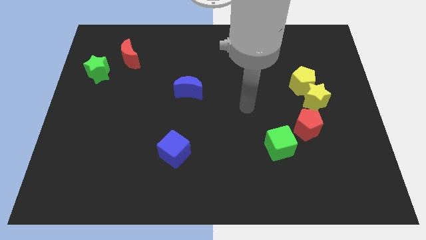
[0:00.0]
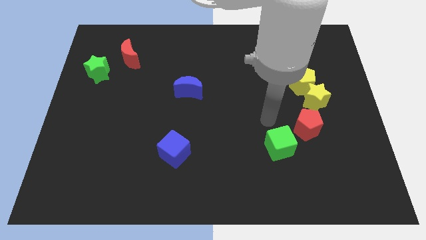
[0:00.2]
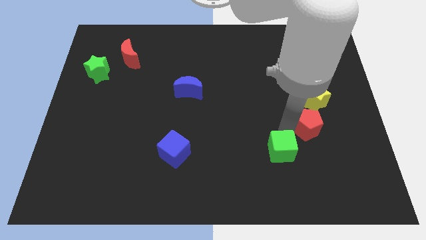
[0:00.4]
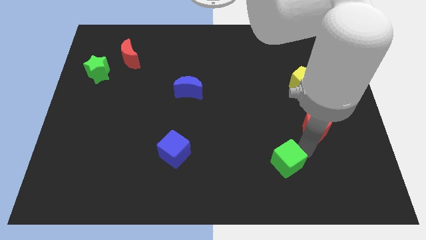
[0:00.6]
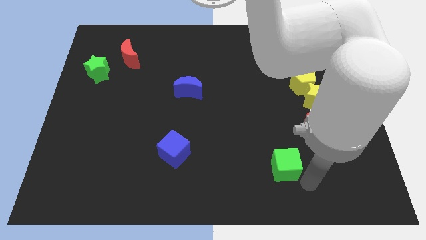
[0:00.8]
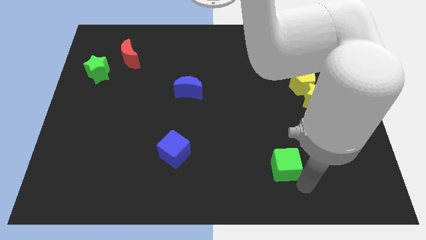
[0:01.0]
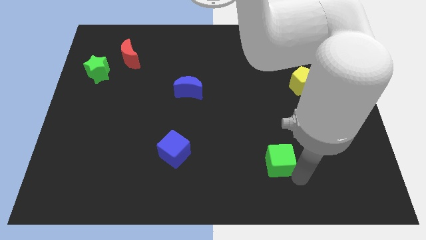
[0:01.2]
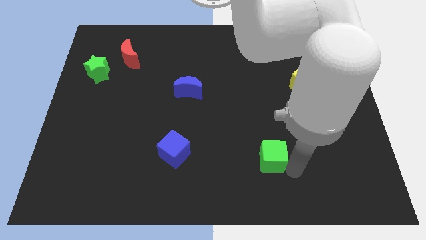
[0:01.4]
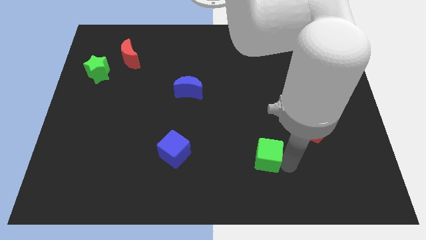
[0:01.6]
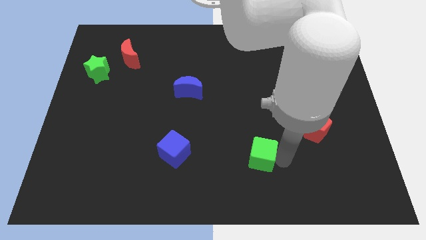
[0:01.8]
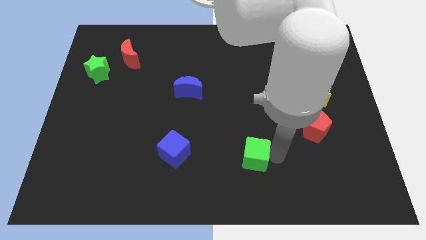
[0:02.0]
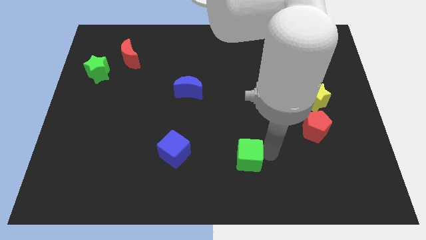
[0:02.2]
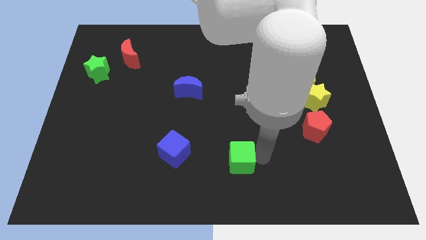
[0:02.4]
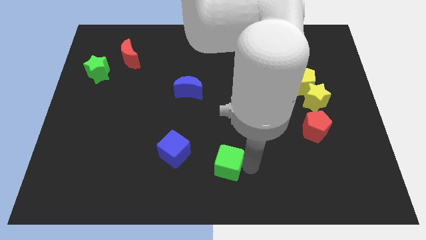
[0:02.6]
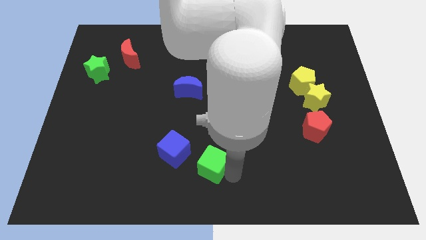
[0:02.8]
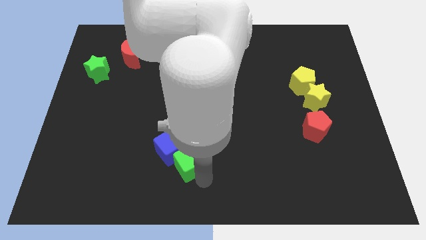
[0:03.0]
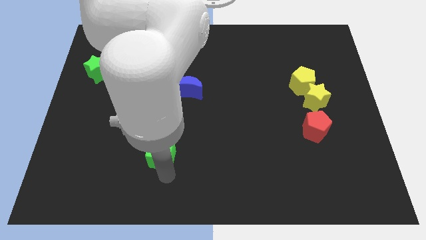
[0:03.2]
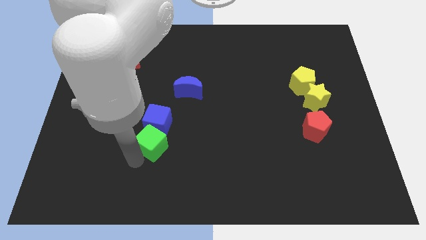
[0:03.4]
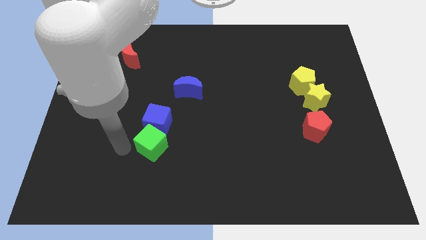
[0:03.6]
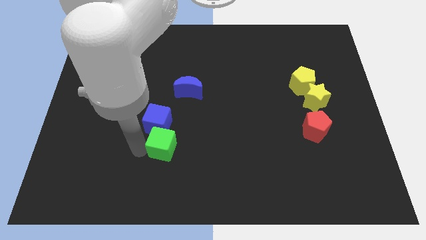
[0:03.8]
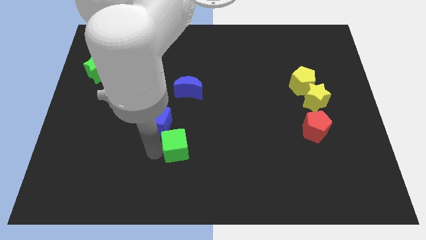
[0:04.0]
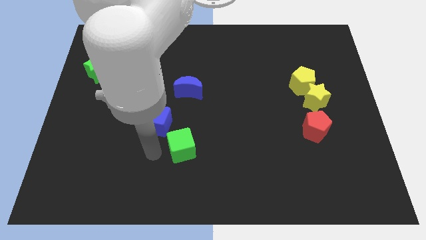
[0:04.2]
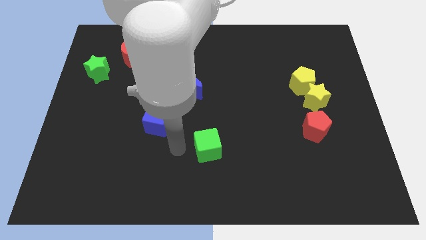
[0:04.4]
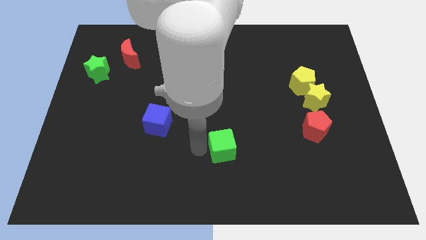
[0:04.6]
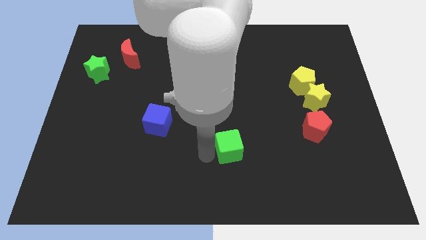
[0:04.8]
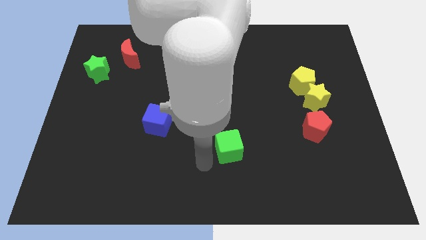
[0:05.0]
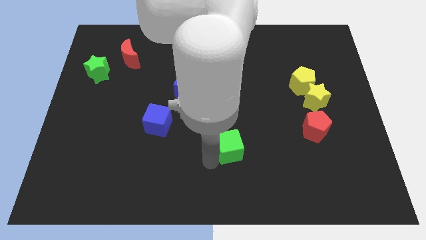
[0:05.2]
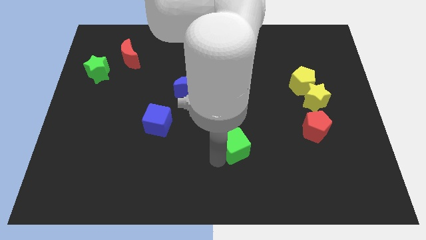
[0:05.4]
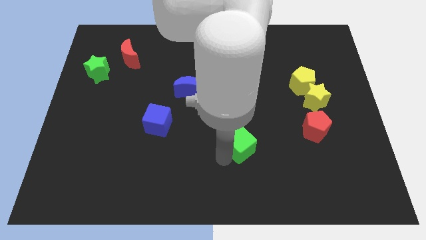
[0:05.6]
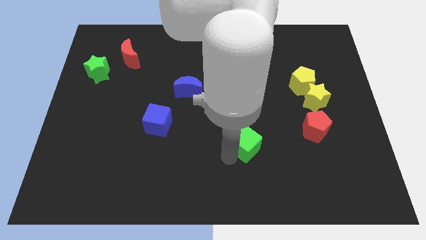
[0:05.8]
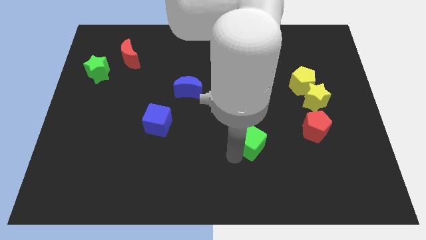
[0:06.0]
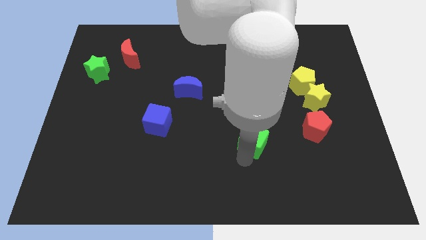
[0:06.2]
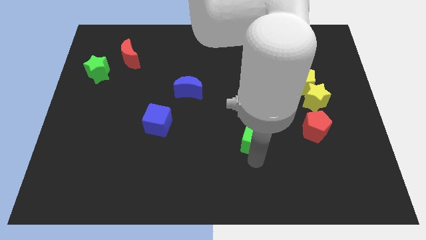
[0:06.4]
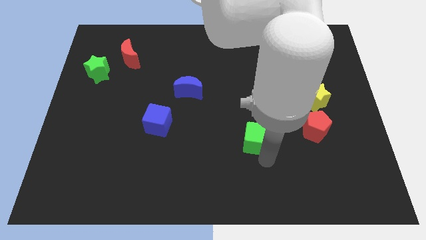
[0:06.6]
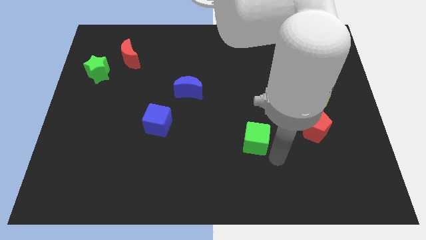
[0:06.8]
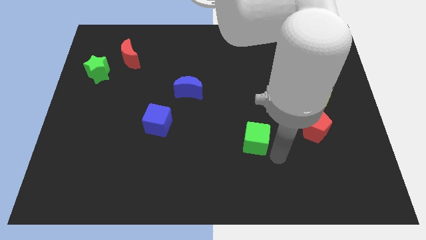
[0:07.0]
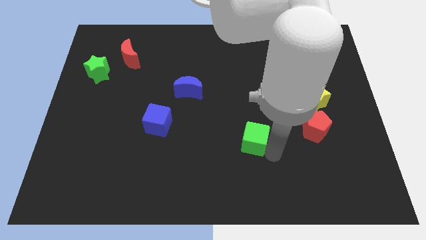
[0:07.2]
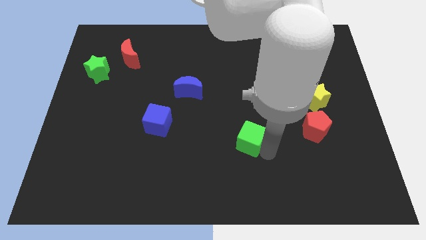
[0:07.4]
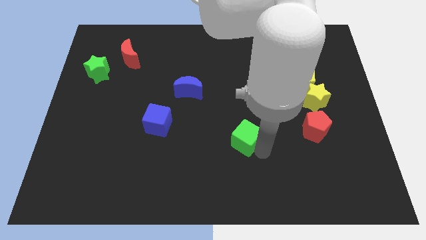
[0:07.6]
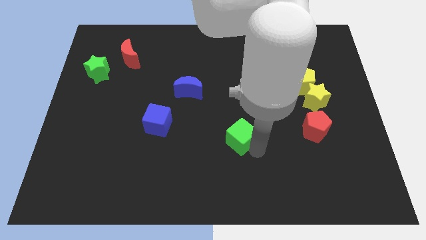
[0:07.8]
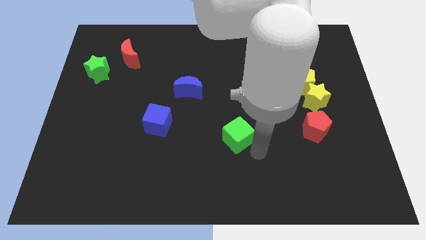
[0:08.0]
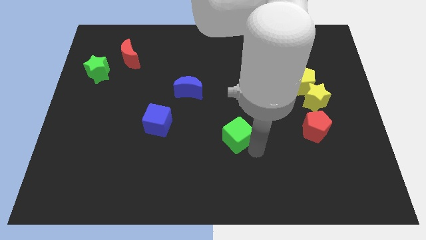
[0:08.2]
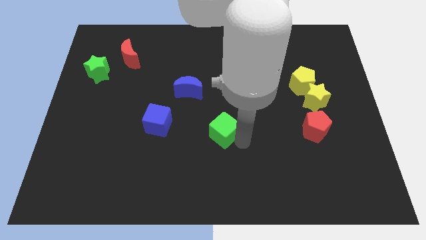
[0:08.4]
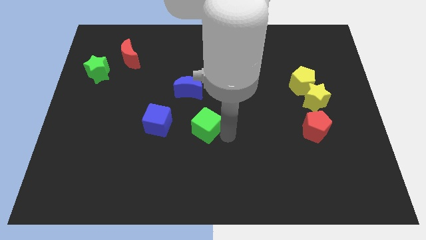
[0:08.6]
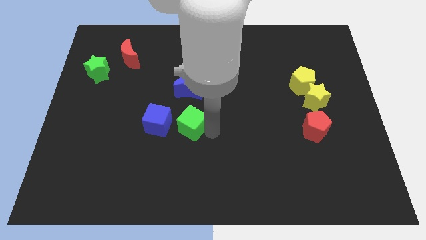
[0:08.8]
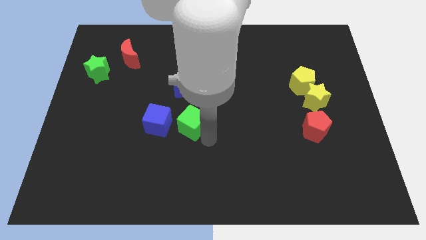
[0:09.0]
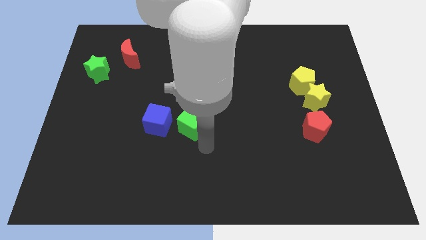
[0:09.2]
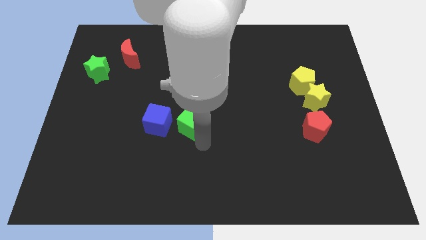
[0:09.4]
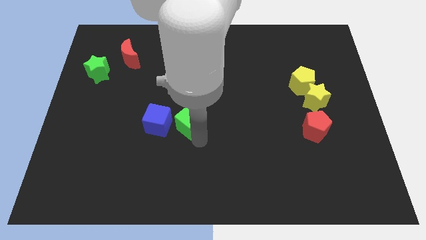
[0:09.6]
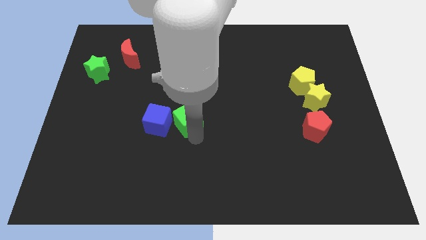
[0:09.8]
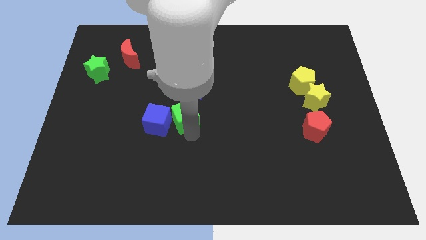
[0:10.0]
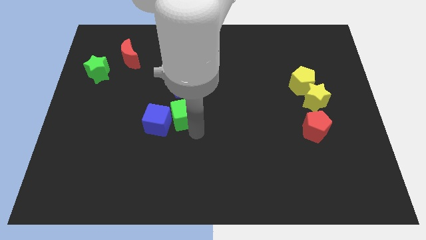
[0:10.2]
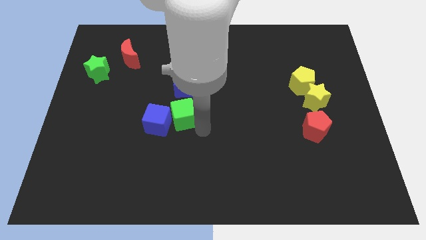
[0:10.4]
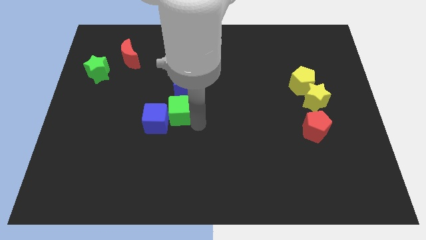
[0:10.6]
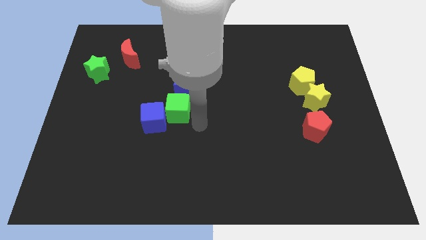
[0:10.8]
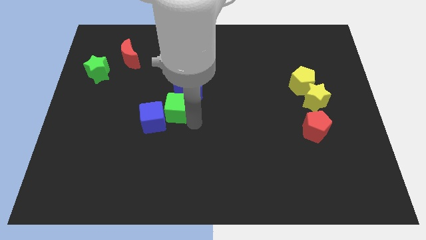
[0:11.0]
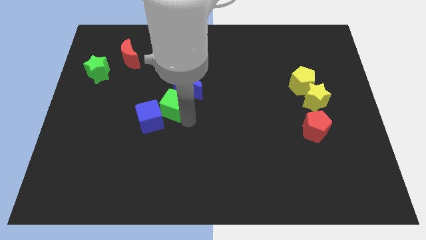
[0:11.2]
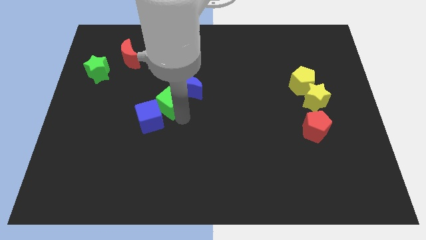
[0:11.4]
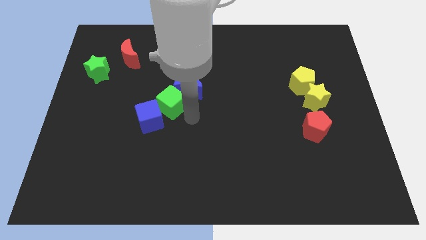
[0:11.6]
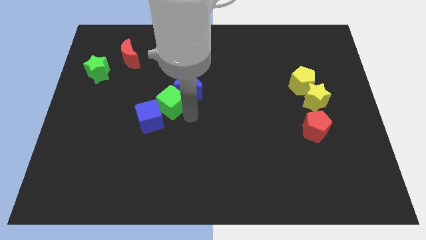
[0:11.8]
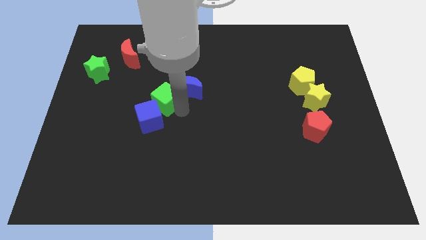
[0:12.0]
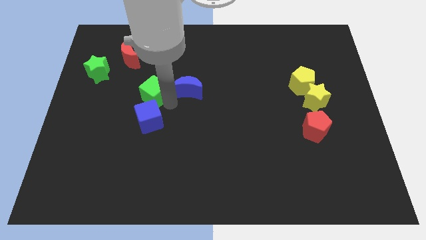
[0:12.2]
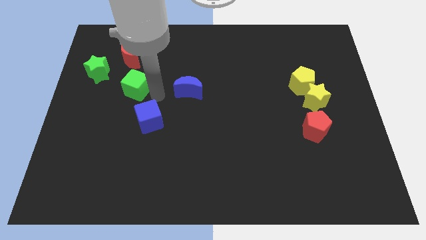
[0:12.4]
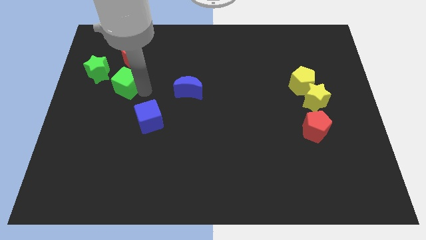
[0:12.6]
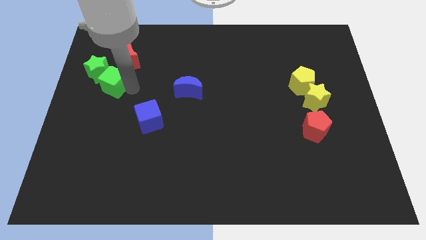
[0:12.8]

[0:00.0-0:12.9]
move the green cube to the green star

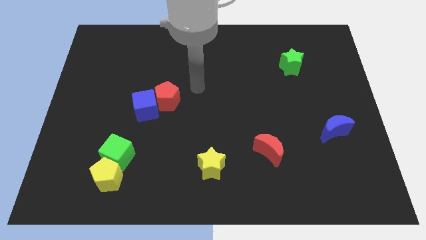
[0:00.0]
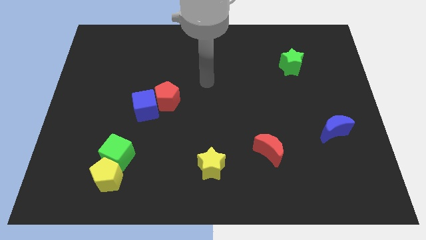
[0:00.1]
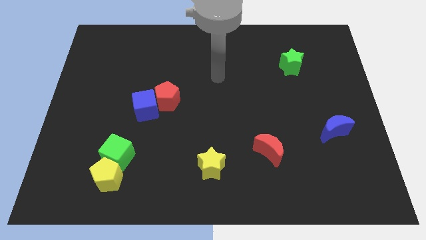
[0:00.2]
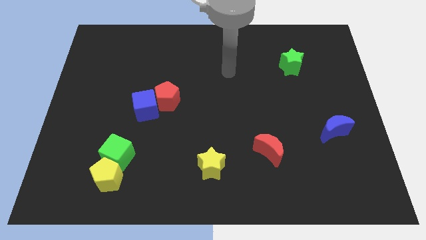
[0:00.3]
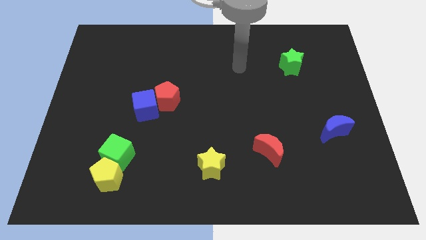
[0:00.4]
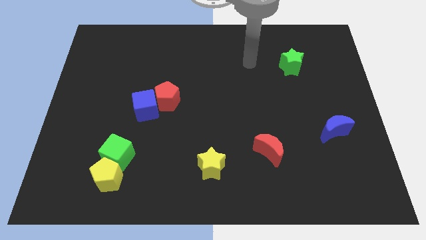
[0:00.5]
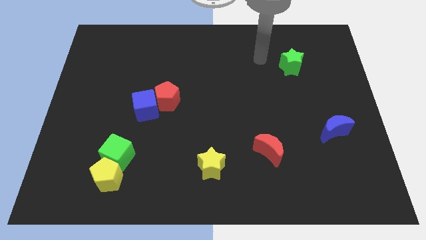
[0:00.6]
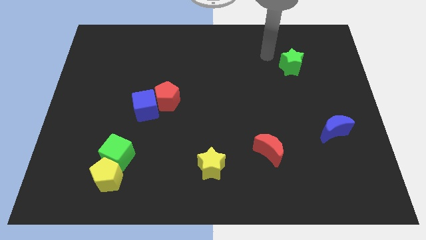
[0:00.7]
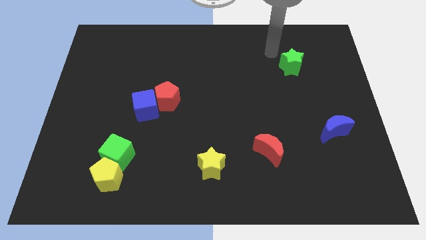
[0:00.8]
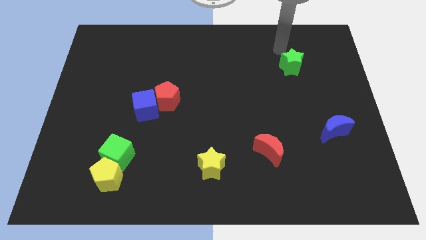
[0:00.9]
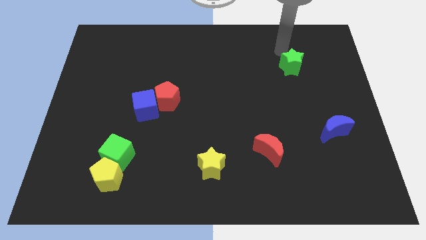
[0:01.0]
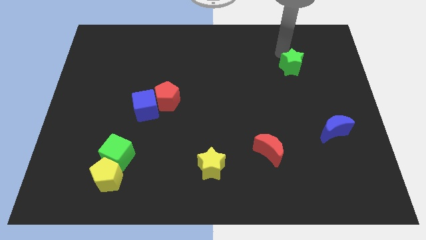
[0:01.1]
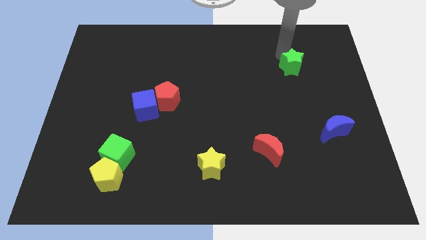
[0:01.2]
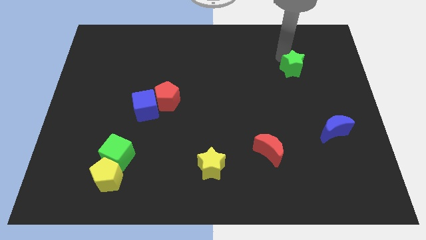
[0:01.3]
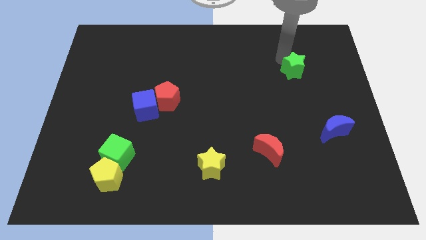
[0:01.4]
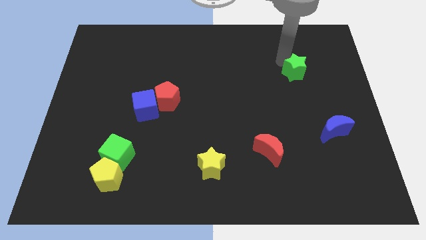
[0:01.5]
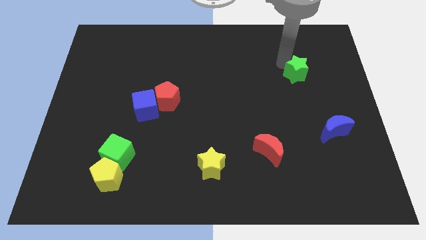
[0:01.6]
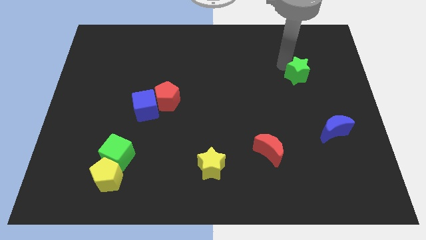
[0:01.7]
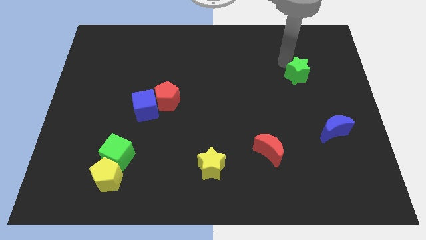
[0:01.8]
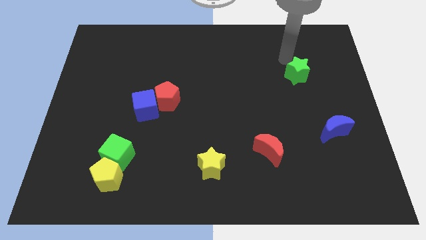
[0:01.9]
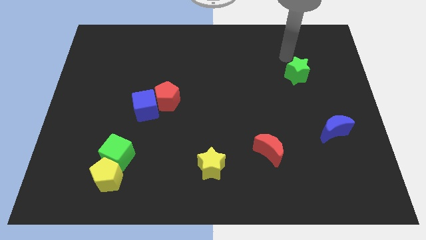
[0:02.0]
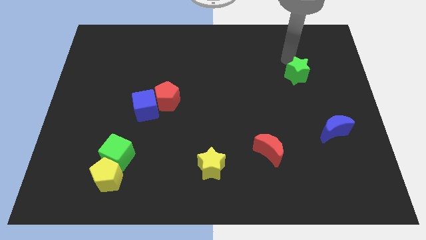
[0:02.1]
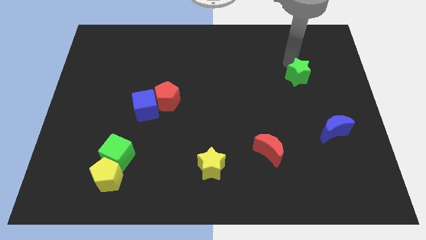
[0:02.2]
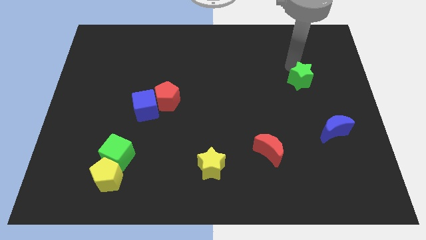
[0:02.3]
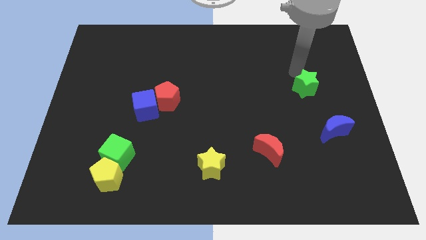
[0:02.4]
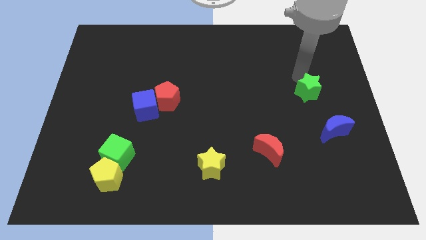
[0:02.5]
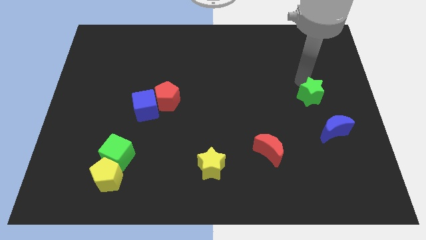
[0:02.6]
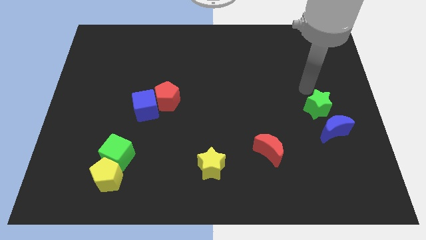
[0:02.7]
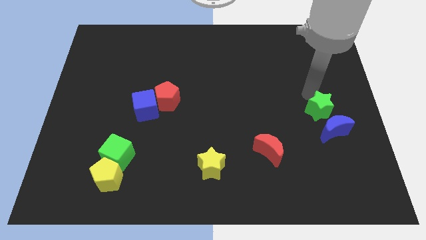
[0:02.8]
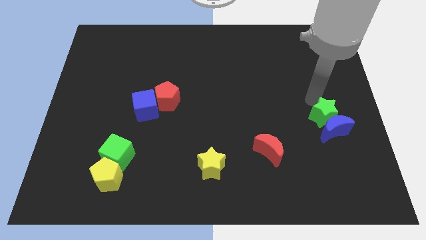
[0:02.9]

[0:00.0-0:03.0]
slide the green star close to the blue moon
